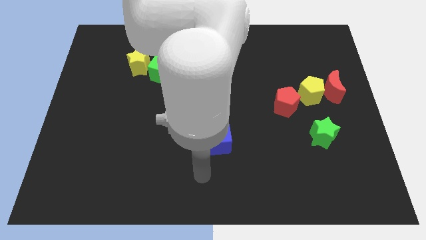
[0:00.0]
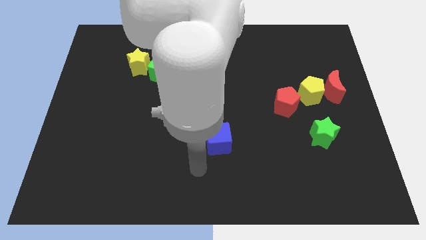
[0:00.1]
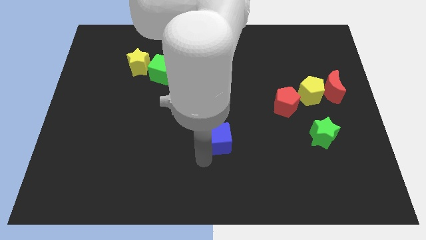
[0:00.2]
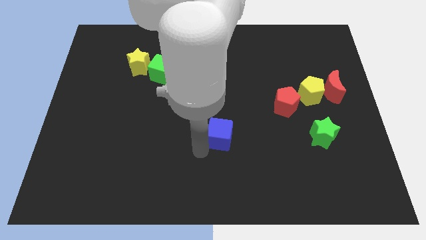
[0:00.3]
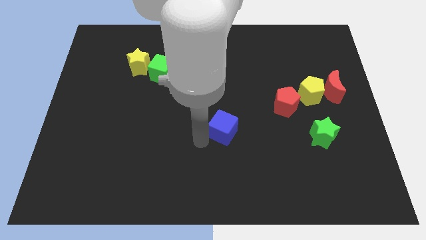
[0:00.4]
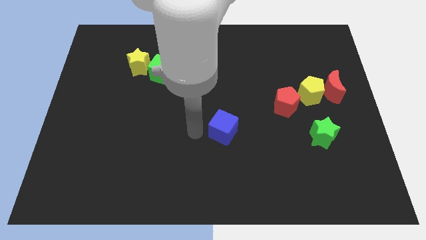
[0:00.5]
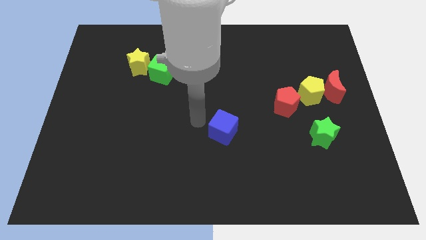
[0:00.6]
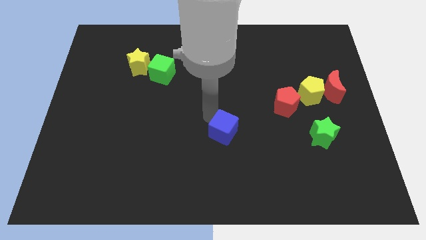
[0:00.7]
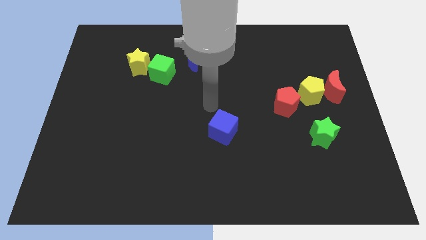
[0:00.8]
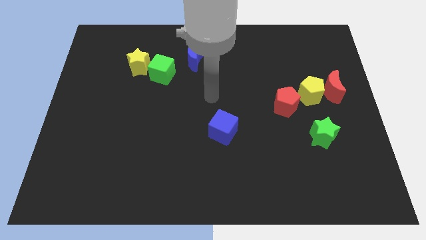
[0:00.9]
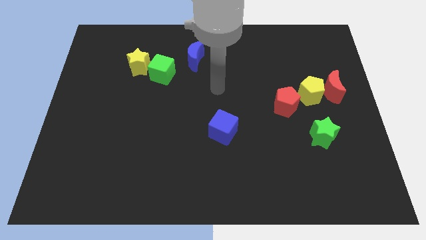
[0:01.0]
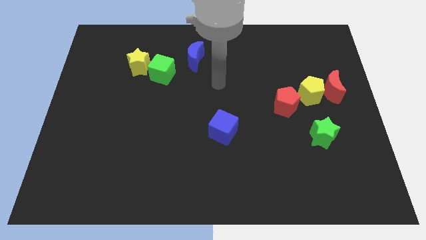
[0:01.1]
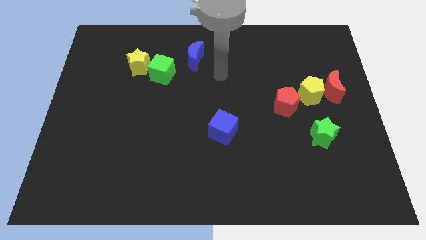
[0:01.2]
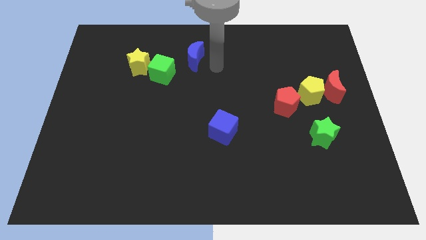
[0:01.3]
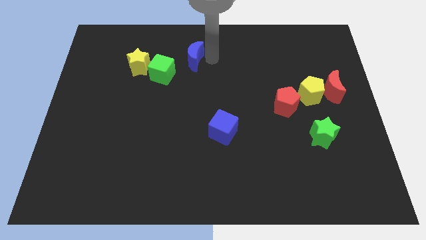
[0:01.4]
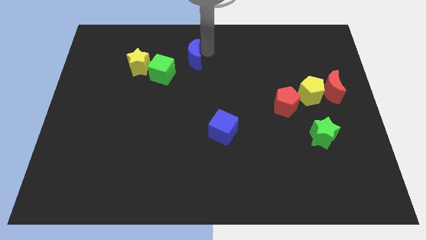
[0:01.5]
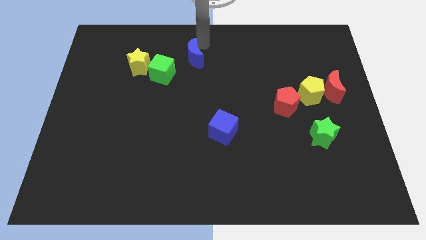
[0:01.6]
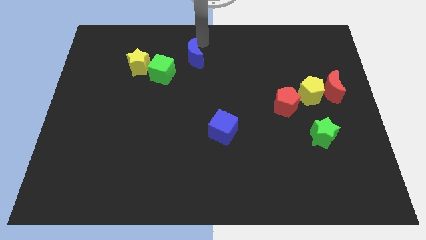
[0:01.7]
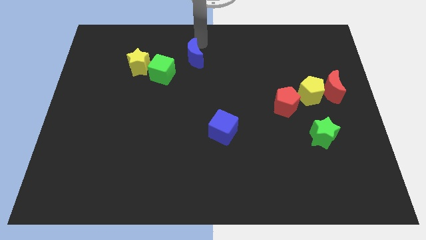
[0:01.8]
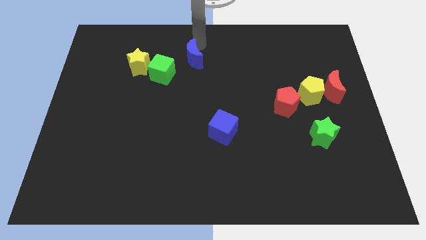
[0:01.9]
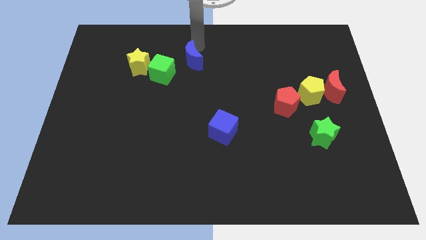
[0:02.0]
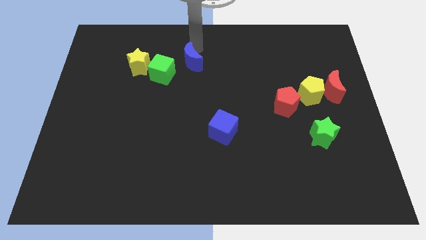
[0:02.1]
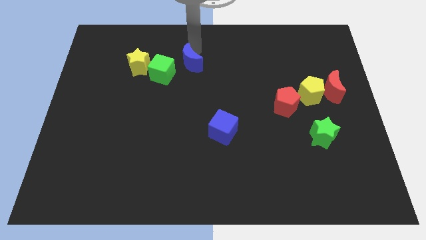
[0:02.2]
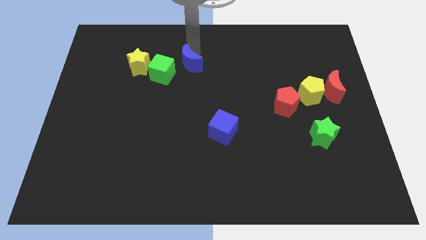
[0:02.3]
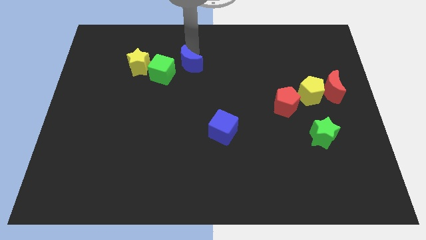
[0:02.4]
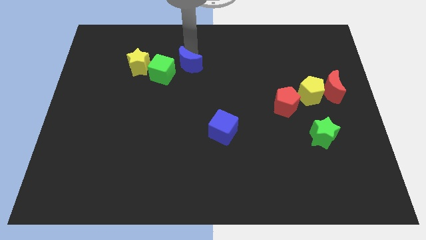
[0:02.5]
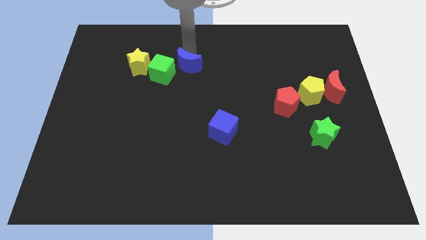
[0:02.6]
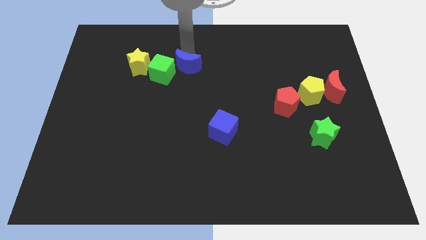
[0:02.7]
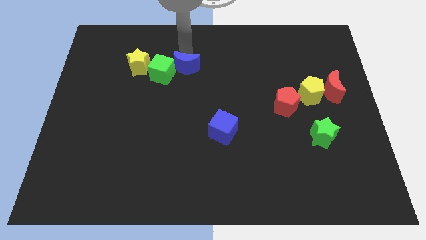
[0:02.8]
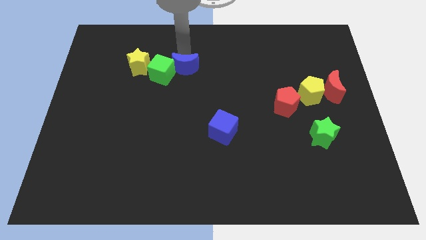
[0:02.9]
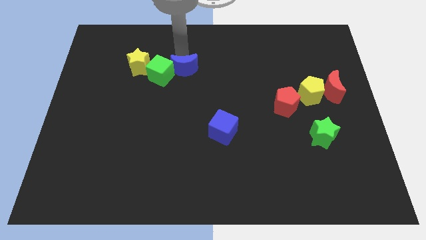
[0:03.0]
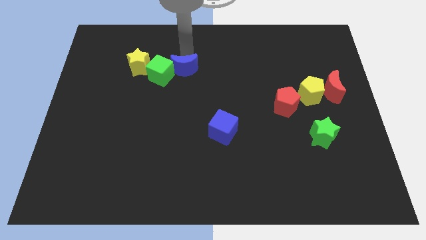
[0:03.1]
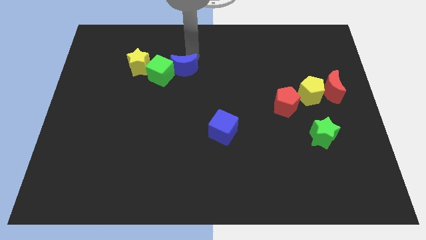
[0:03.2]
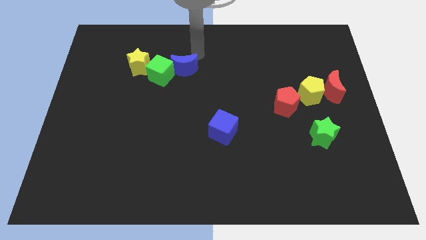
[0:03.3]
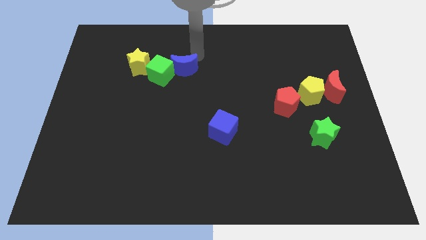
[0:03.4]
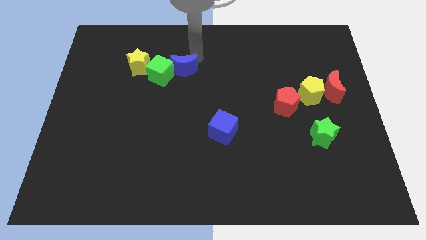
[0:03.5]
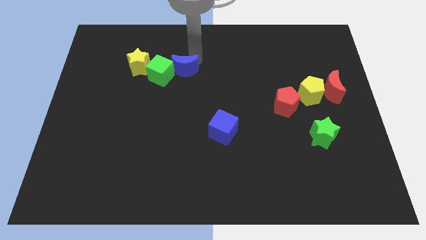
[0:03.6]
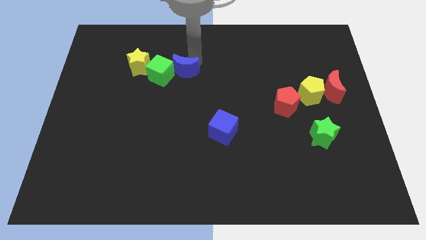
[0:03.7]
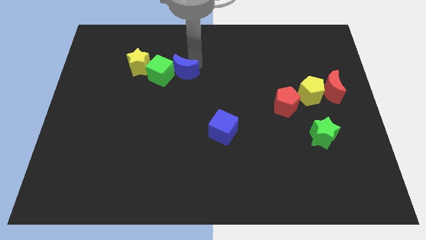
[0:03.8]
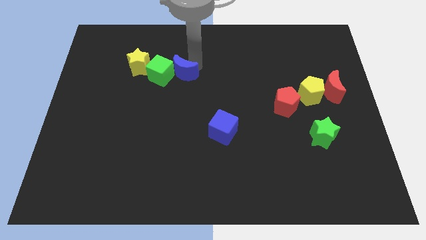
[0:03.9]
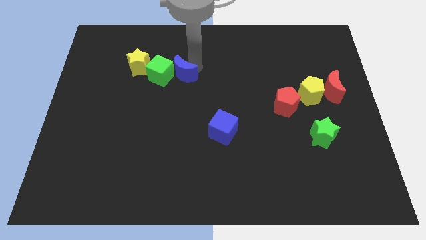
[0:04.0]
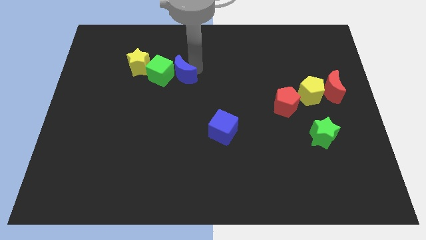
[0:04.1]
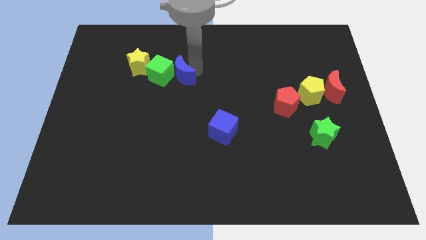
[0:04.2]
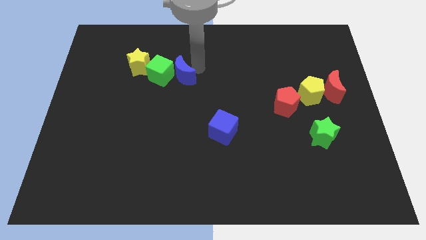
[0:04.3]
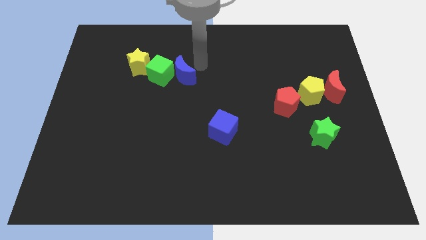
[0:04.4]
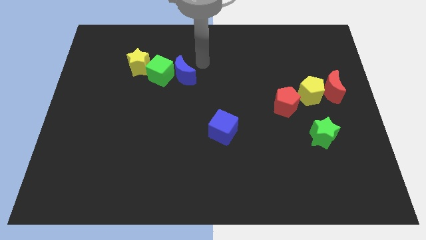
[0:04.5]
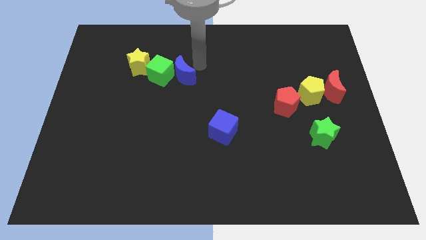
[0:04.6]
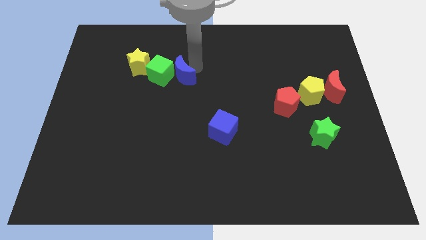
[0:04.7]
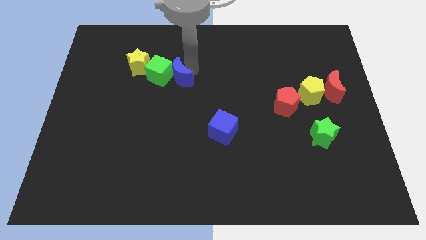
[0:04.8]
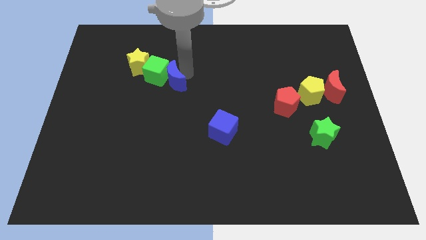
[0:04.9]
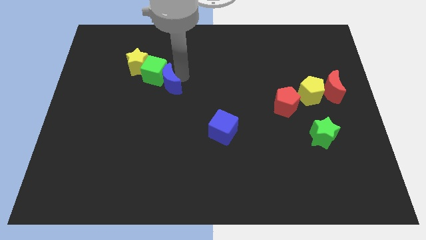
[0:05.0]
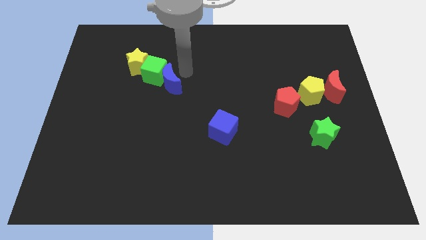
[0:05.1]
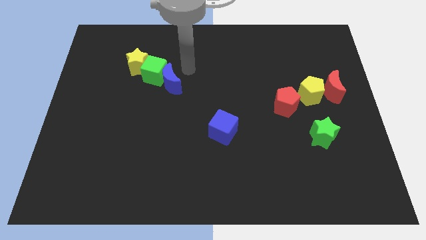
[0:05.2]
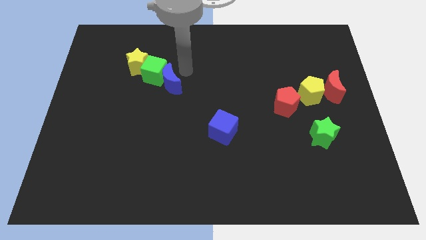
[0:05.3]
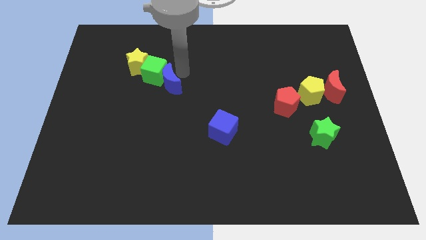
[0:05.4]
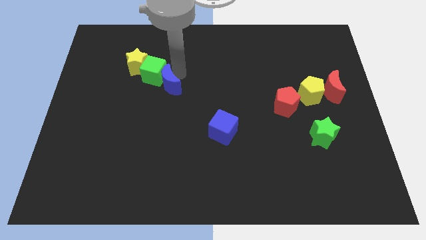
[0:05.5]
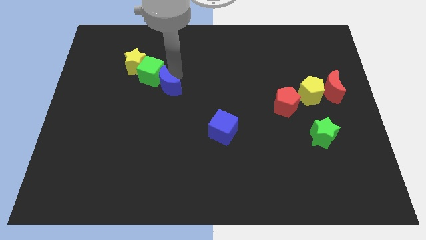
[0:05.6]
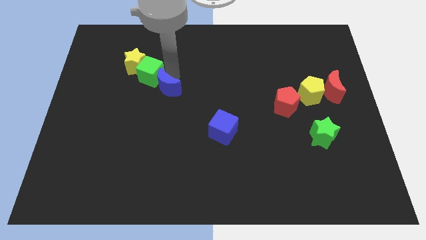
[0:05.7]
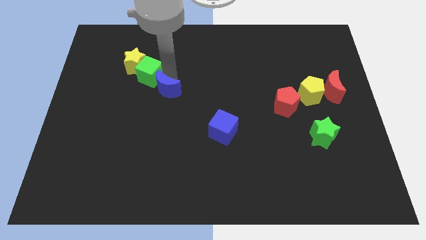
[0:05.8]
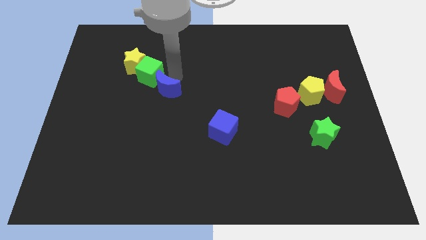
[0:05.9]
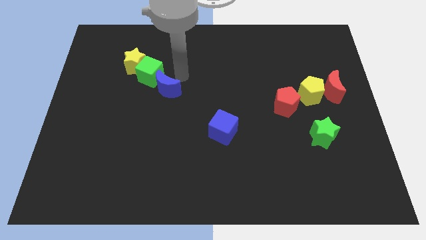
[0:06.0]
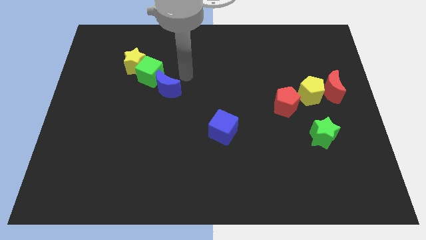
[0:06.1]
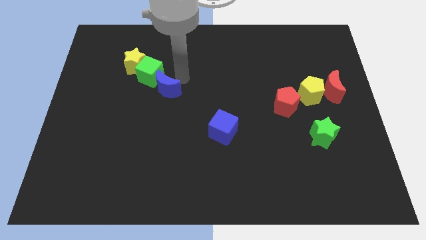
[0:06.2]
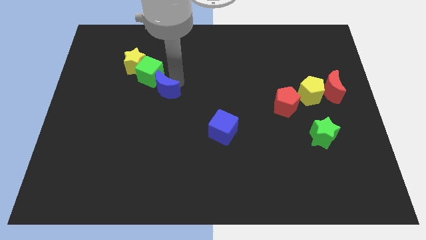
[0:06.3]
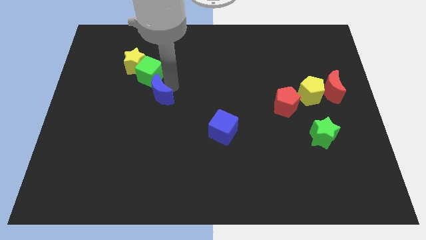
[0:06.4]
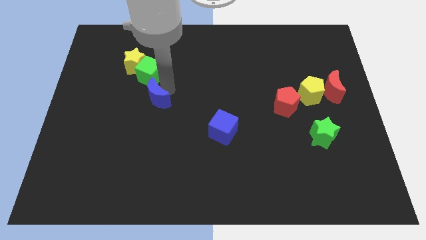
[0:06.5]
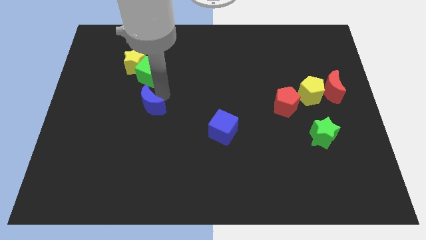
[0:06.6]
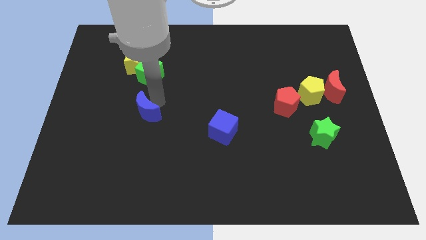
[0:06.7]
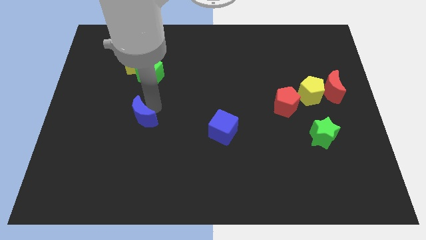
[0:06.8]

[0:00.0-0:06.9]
push the blue moon downwards and left diagonally

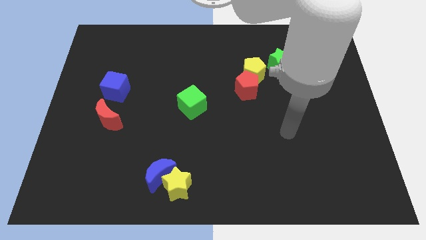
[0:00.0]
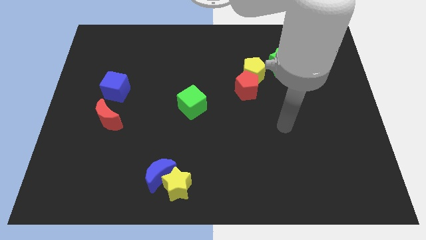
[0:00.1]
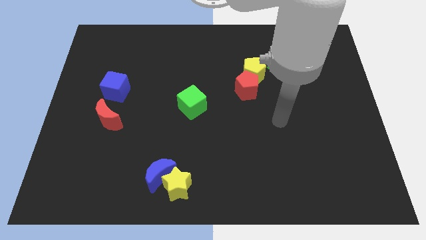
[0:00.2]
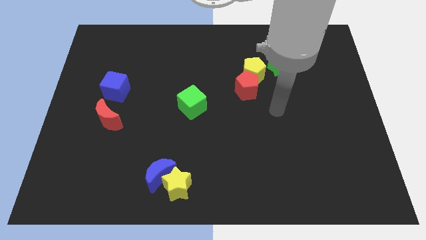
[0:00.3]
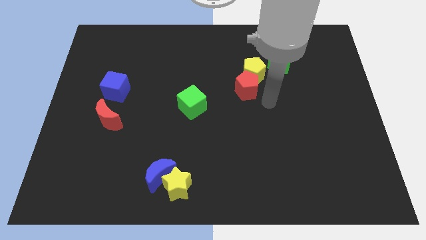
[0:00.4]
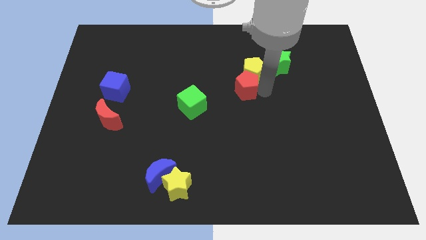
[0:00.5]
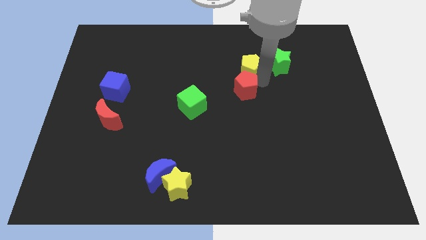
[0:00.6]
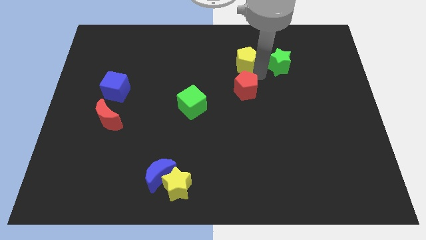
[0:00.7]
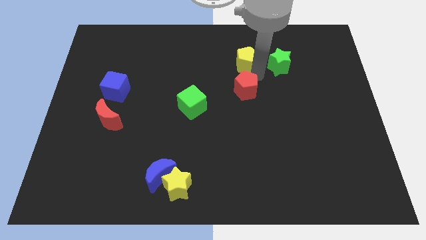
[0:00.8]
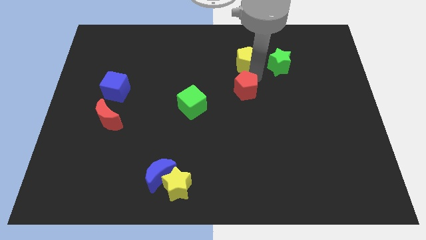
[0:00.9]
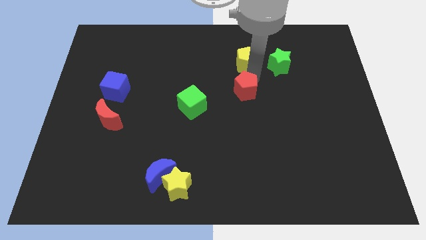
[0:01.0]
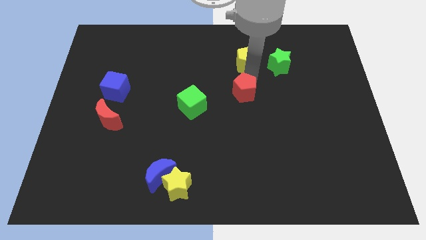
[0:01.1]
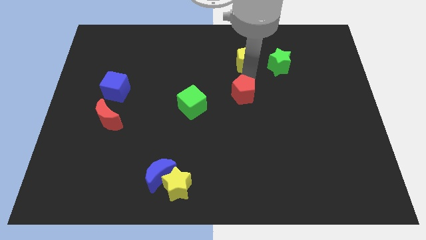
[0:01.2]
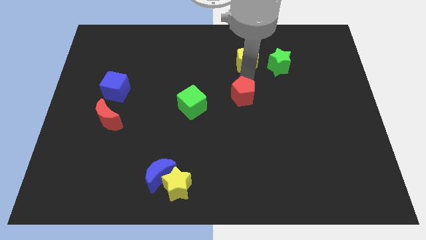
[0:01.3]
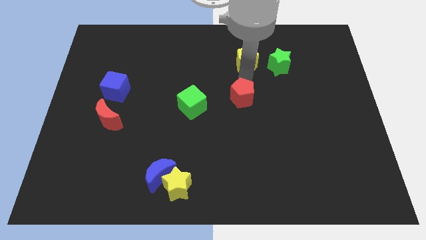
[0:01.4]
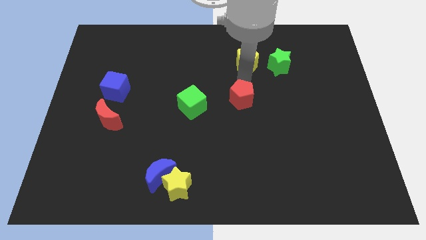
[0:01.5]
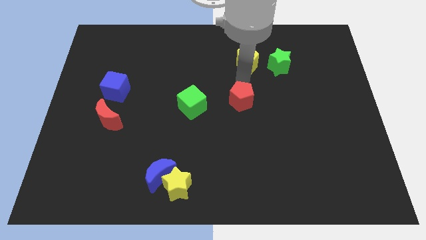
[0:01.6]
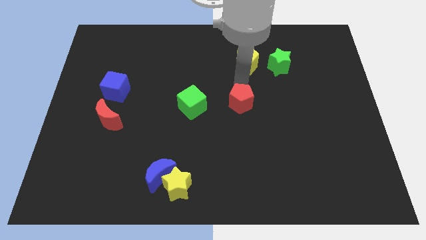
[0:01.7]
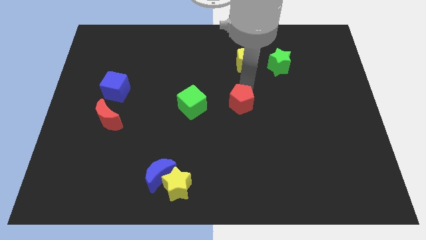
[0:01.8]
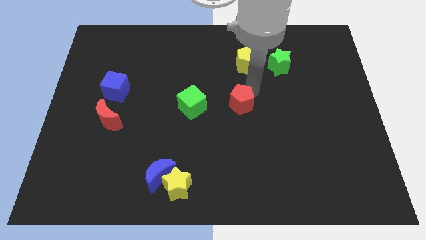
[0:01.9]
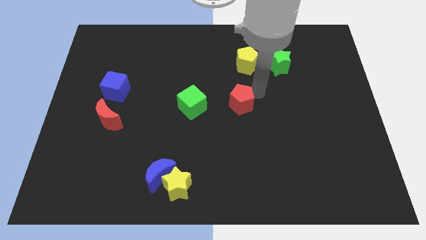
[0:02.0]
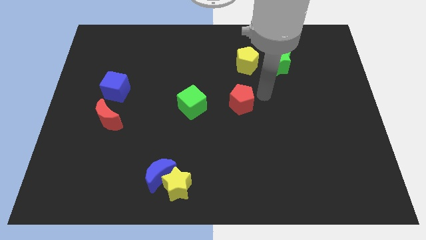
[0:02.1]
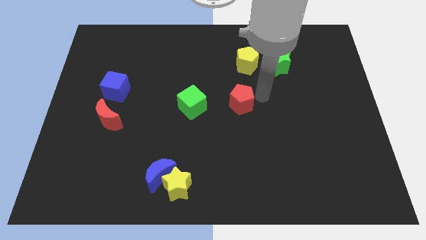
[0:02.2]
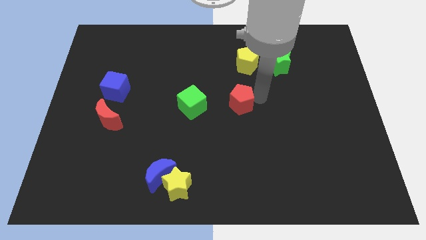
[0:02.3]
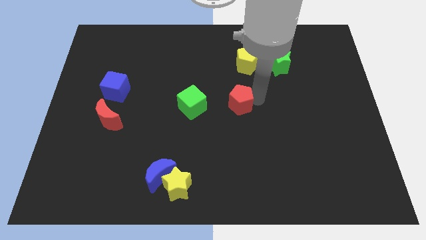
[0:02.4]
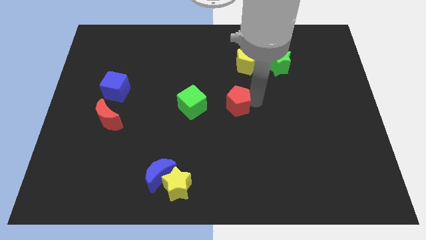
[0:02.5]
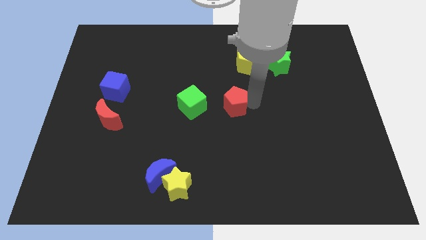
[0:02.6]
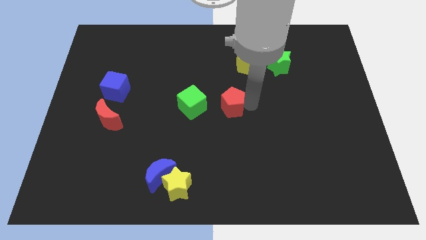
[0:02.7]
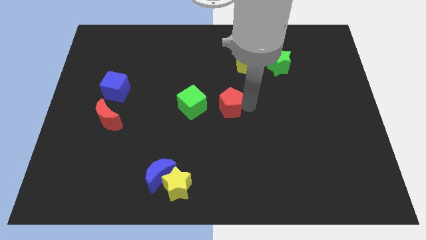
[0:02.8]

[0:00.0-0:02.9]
slightly slide the red pentagon diagonally downwards and to the left
